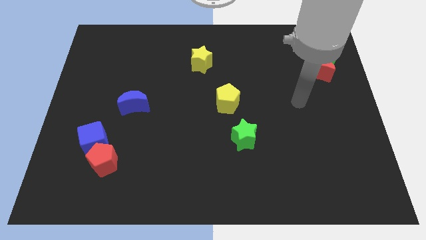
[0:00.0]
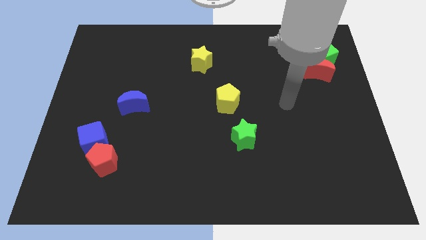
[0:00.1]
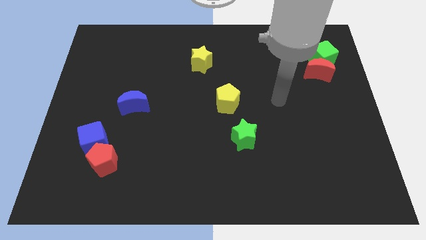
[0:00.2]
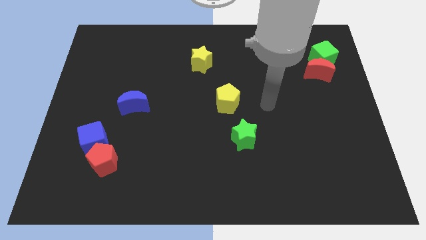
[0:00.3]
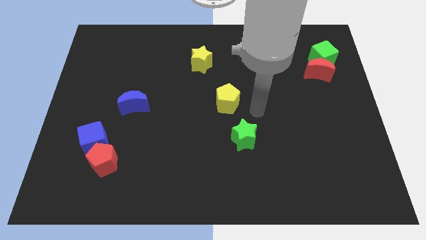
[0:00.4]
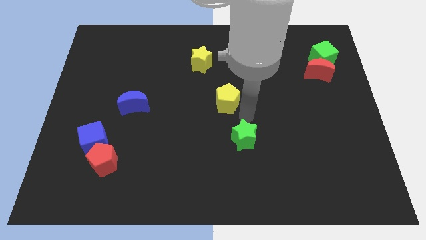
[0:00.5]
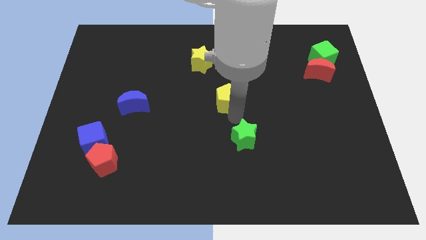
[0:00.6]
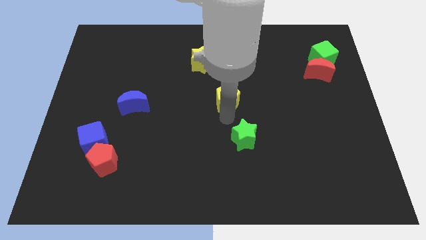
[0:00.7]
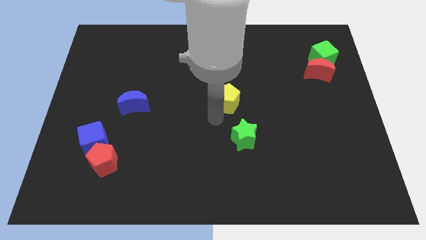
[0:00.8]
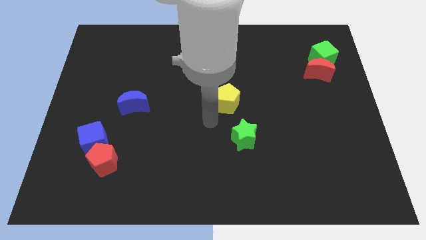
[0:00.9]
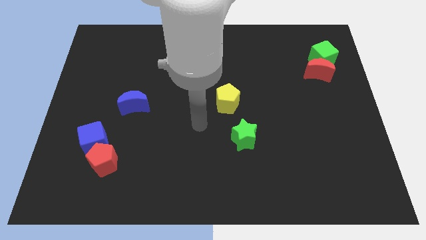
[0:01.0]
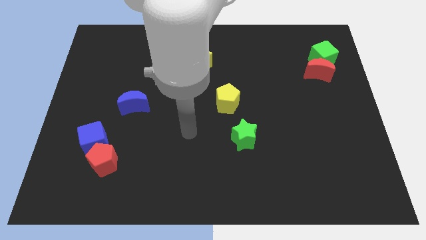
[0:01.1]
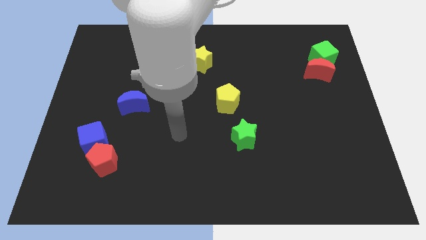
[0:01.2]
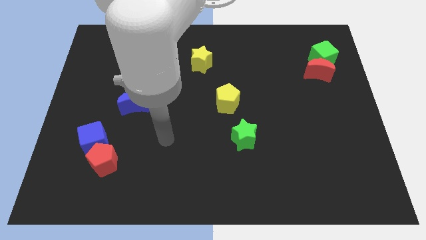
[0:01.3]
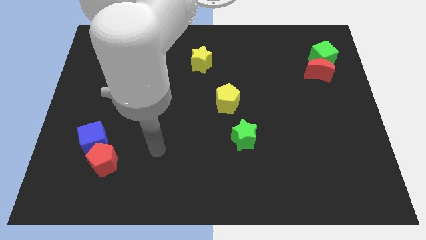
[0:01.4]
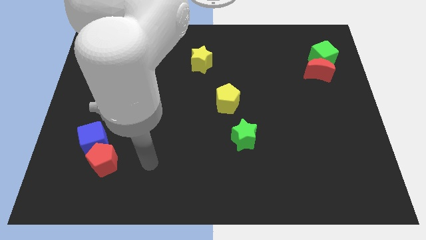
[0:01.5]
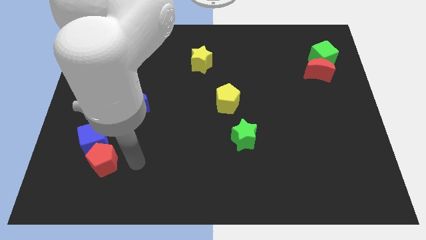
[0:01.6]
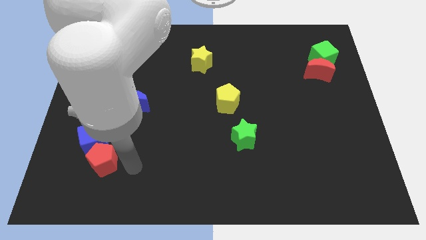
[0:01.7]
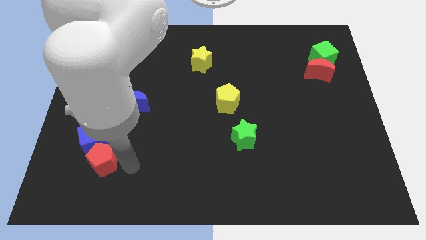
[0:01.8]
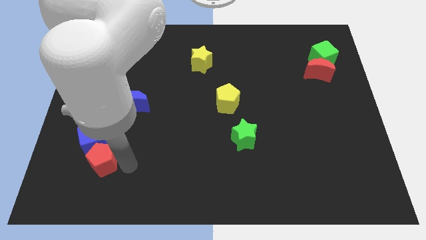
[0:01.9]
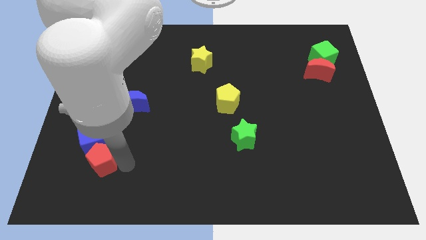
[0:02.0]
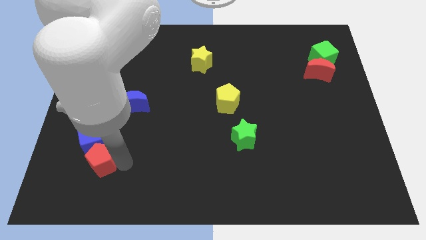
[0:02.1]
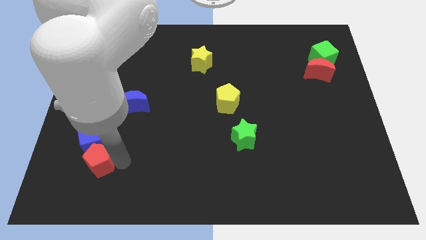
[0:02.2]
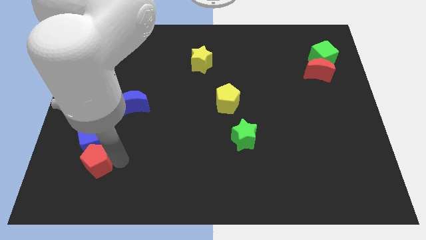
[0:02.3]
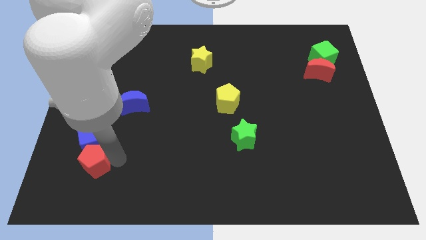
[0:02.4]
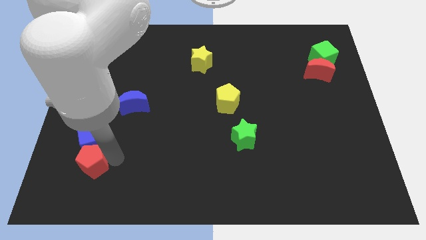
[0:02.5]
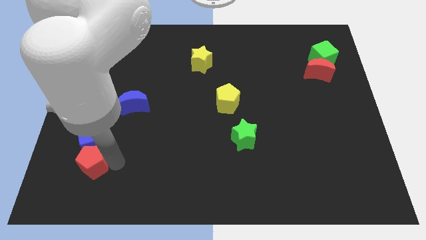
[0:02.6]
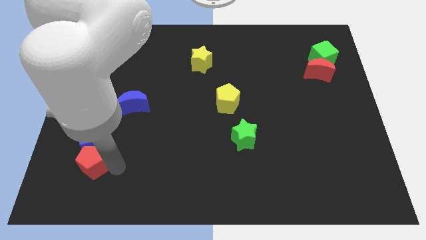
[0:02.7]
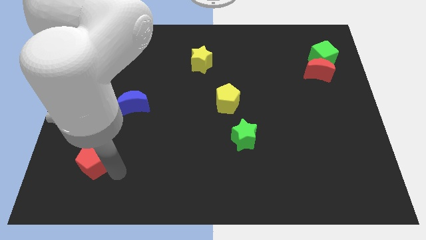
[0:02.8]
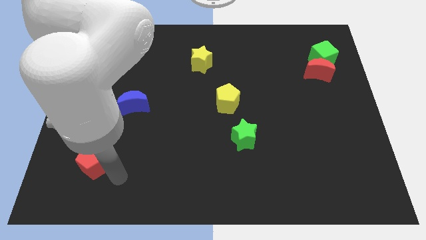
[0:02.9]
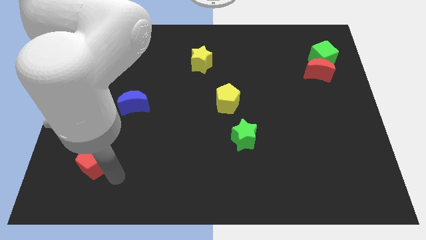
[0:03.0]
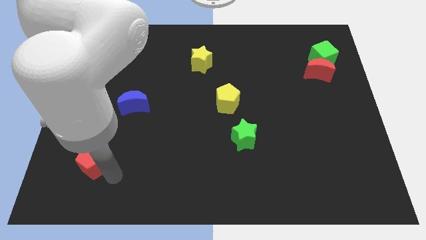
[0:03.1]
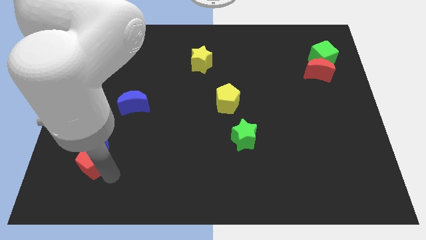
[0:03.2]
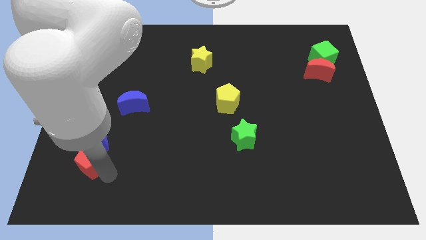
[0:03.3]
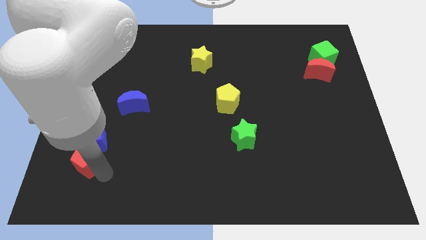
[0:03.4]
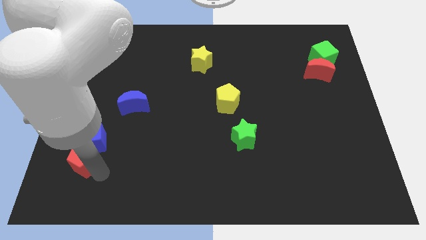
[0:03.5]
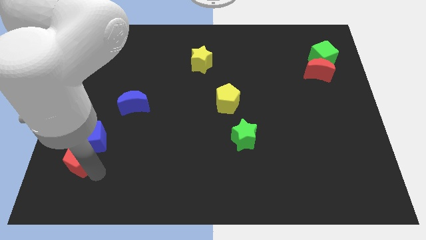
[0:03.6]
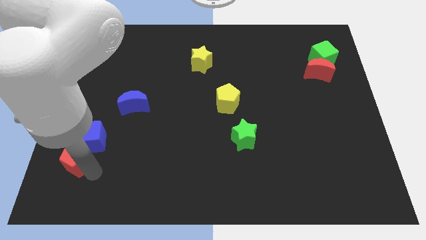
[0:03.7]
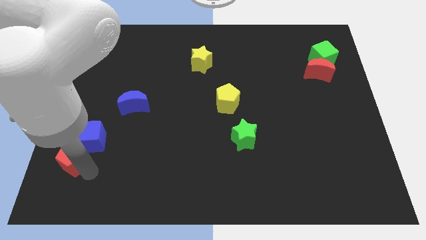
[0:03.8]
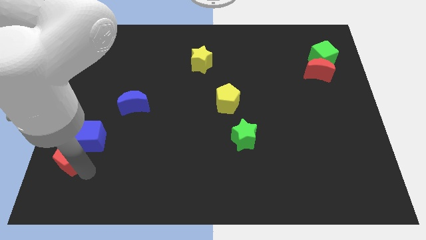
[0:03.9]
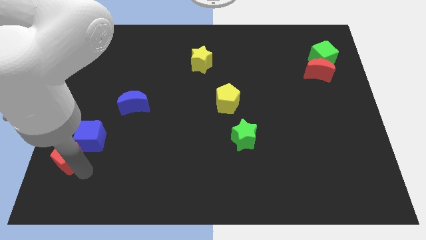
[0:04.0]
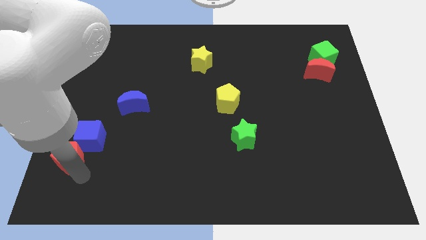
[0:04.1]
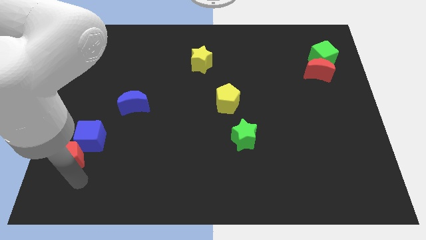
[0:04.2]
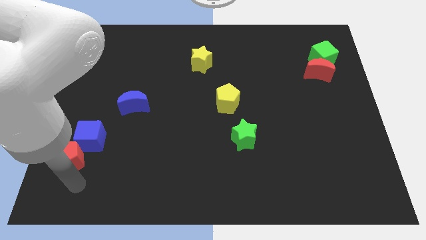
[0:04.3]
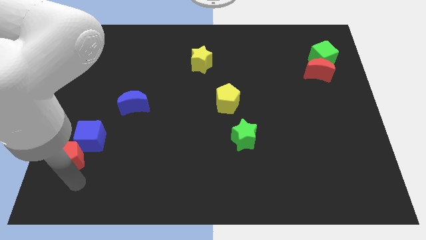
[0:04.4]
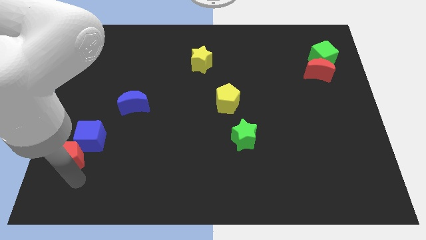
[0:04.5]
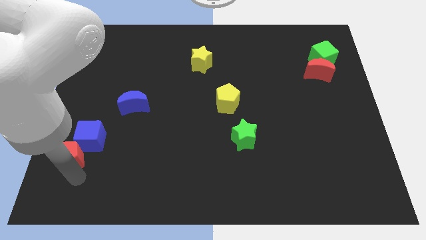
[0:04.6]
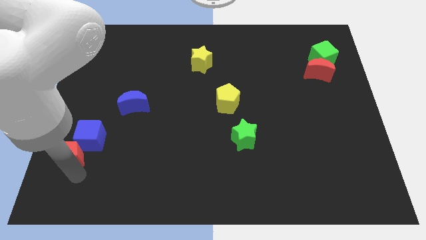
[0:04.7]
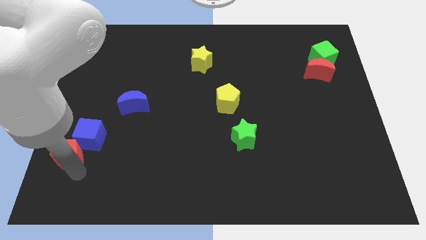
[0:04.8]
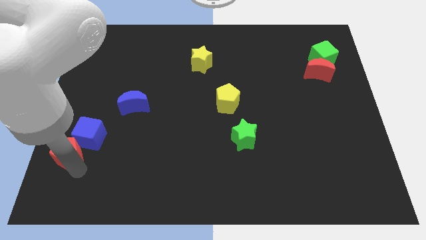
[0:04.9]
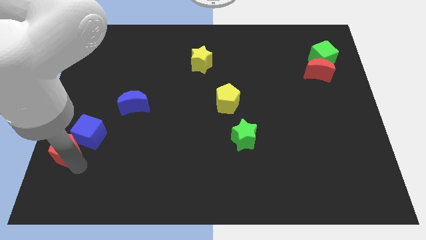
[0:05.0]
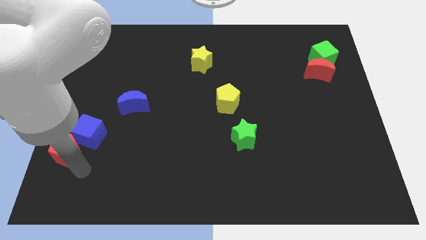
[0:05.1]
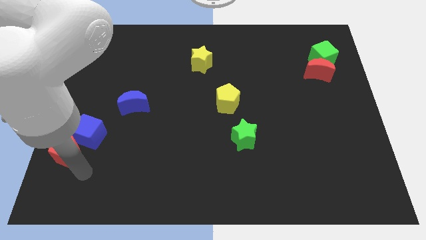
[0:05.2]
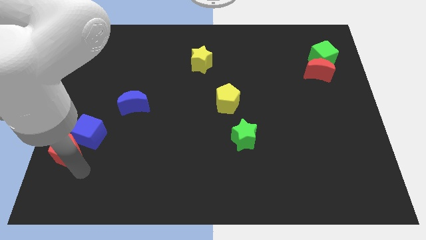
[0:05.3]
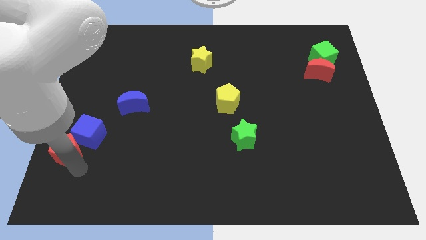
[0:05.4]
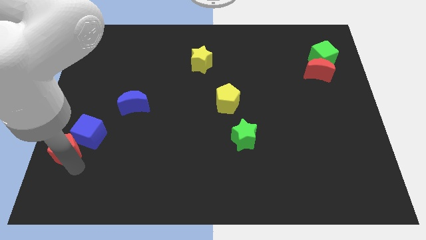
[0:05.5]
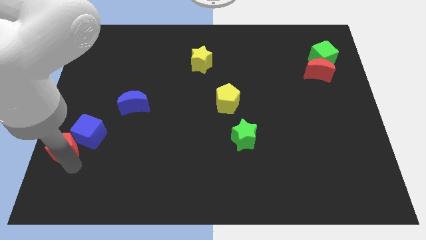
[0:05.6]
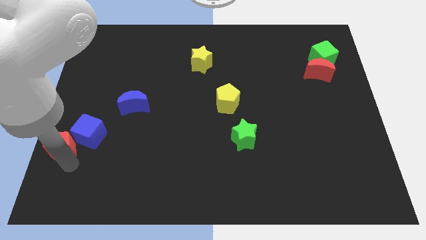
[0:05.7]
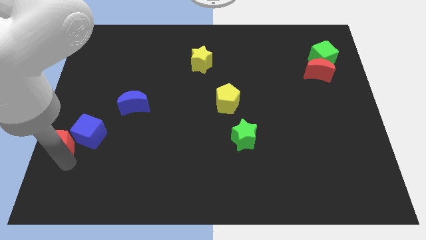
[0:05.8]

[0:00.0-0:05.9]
push the red pentagon to the center left
